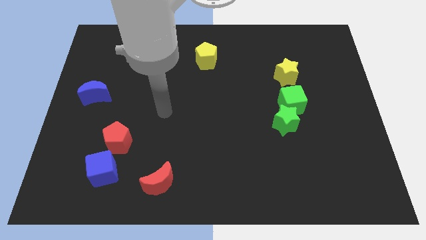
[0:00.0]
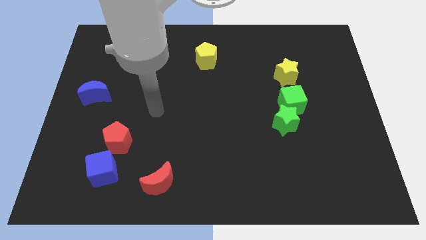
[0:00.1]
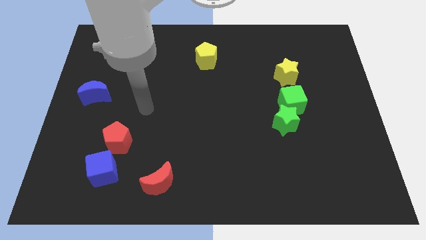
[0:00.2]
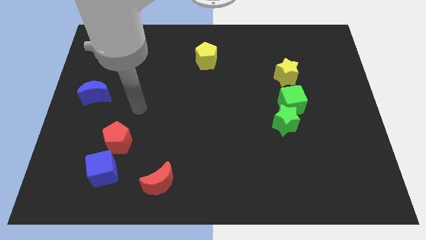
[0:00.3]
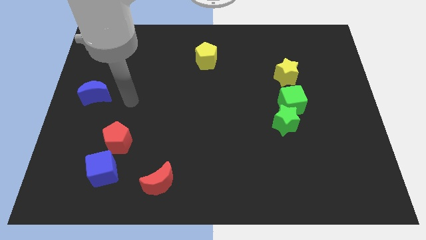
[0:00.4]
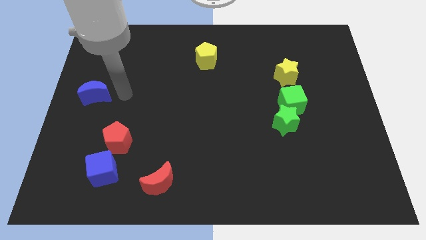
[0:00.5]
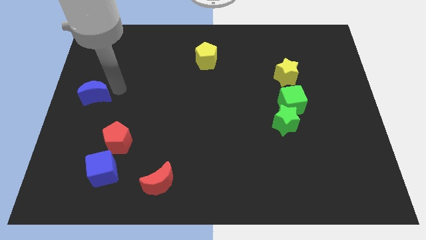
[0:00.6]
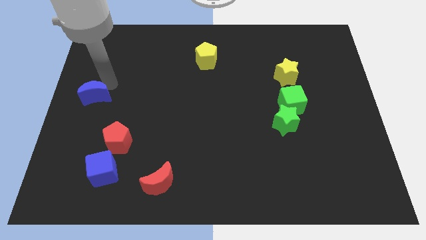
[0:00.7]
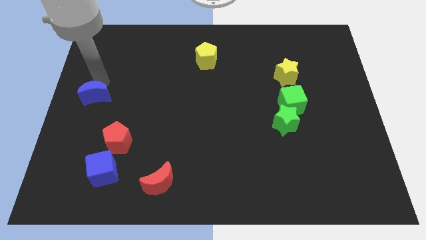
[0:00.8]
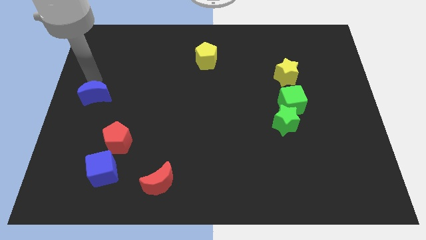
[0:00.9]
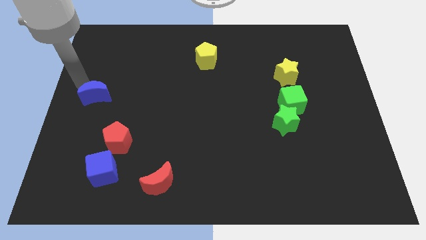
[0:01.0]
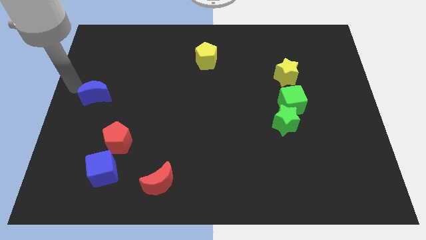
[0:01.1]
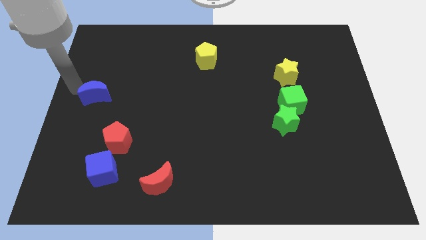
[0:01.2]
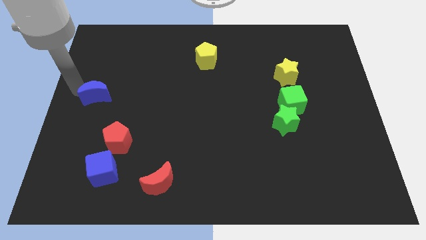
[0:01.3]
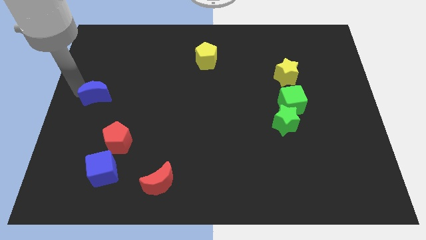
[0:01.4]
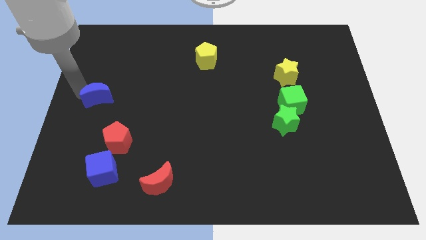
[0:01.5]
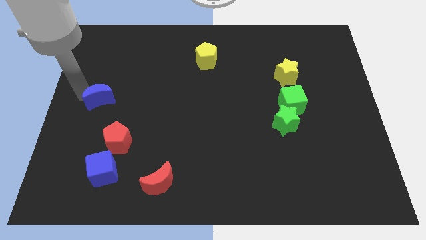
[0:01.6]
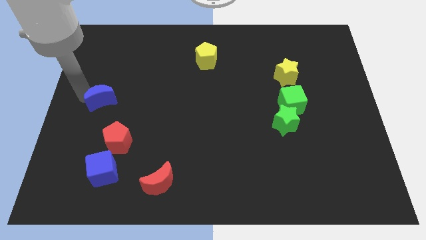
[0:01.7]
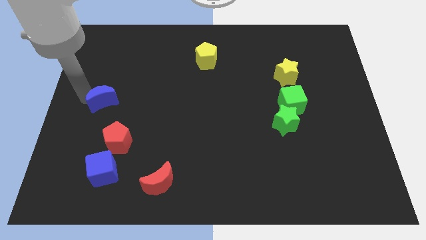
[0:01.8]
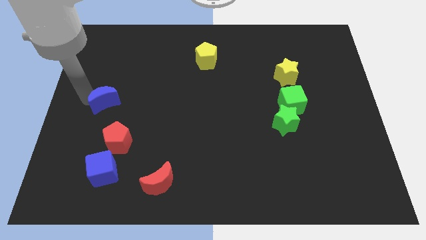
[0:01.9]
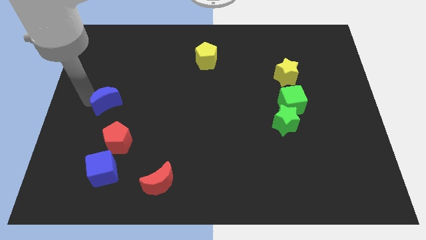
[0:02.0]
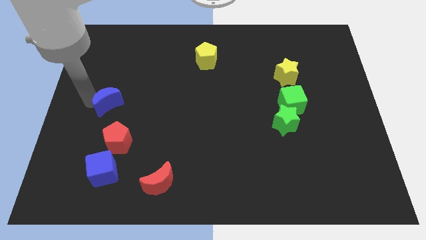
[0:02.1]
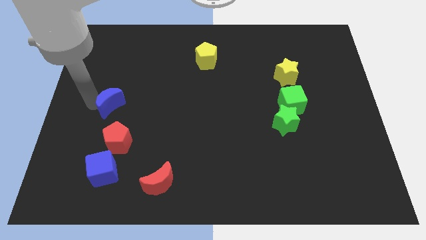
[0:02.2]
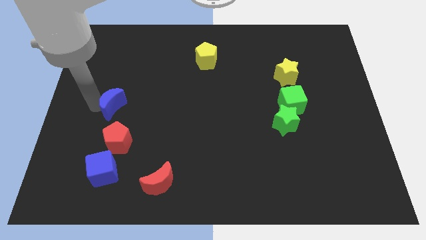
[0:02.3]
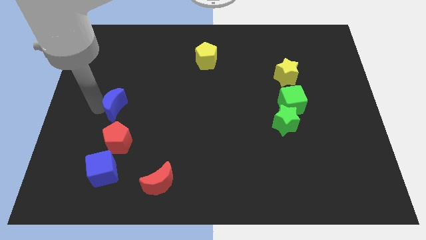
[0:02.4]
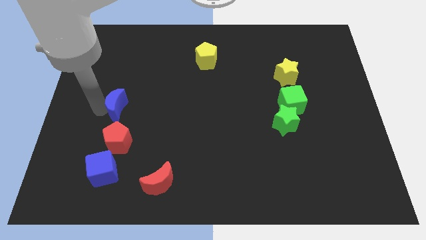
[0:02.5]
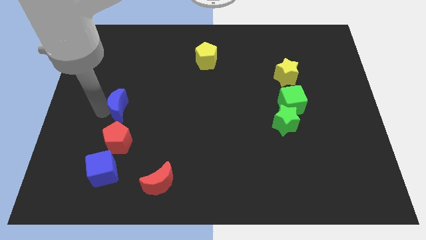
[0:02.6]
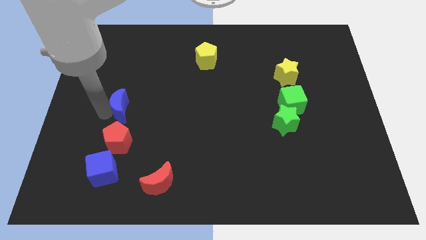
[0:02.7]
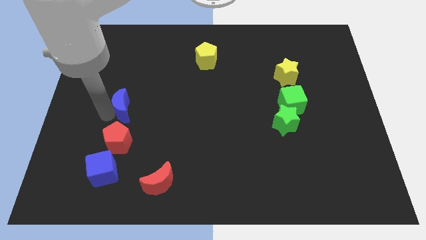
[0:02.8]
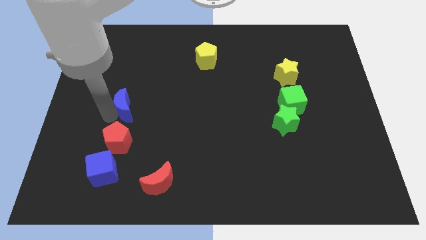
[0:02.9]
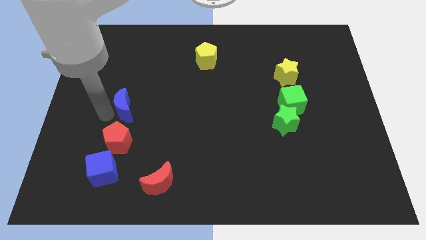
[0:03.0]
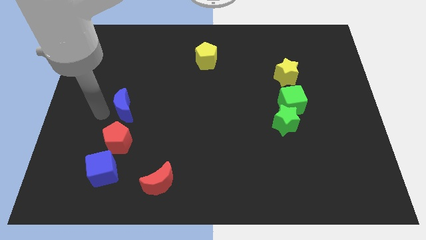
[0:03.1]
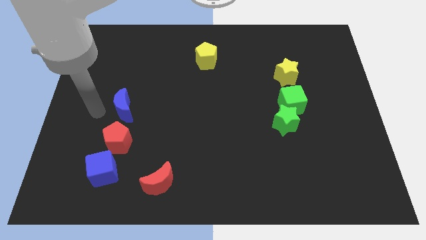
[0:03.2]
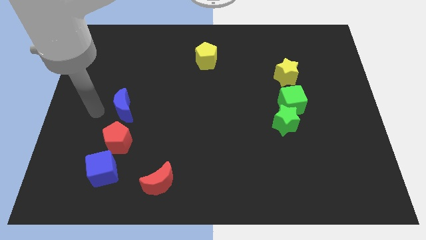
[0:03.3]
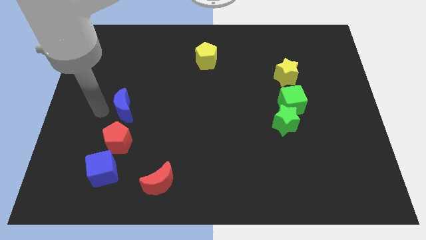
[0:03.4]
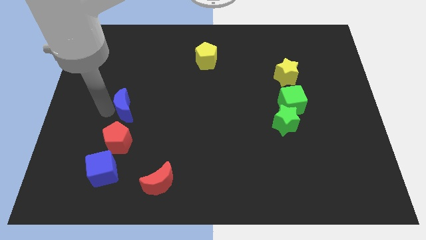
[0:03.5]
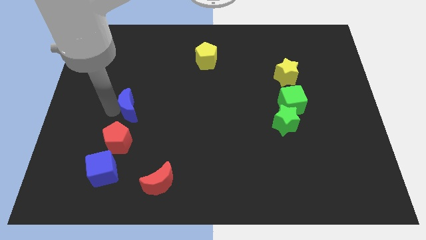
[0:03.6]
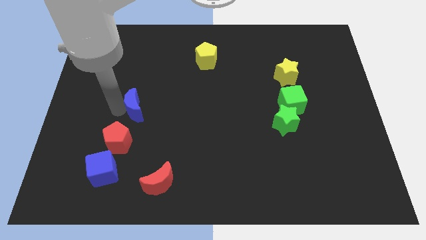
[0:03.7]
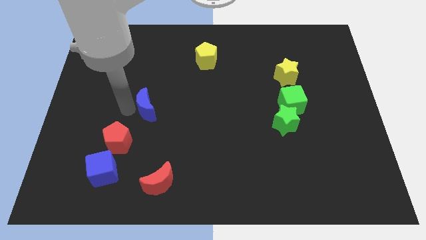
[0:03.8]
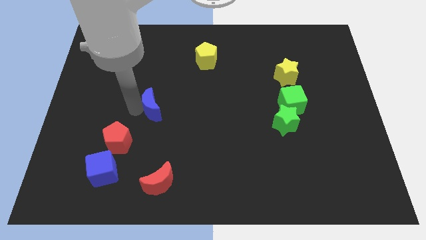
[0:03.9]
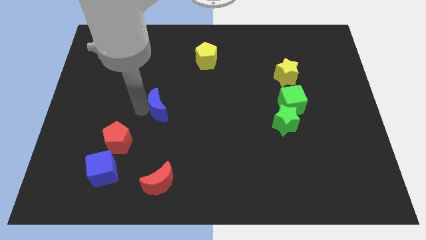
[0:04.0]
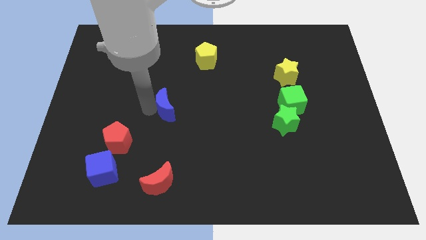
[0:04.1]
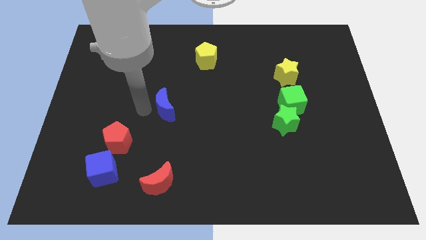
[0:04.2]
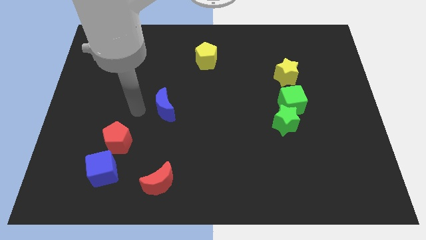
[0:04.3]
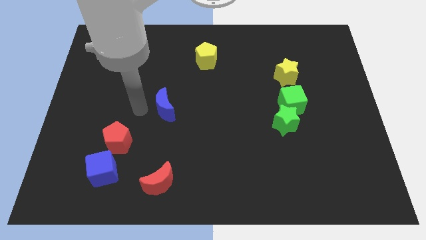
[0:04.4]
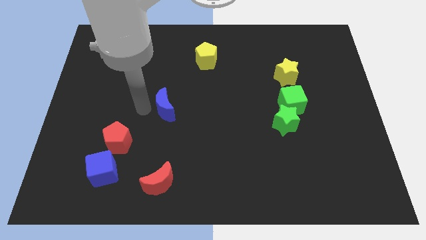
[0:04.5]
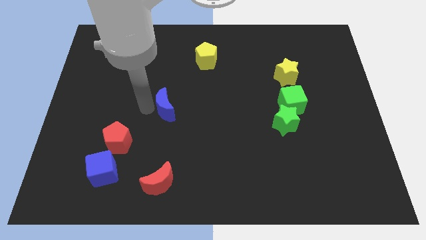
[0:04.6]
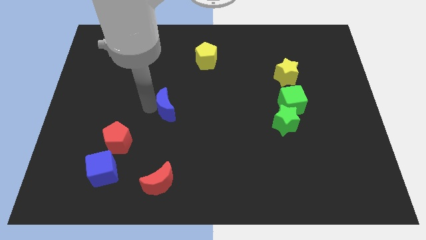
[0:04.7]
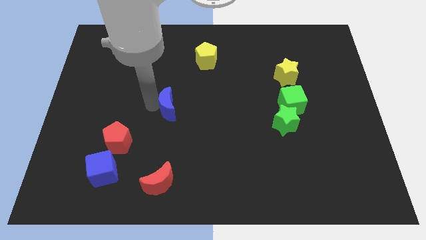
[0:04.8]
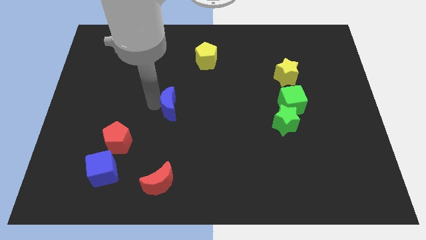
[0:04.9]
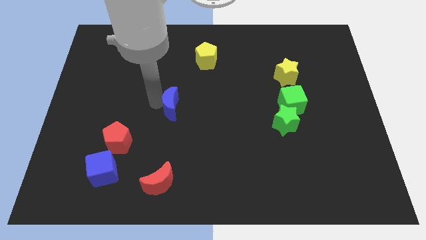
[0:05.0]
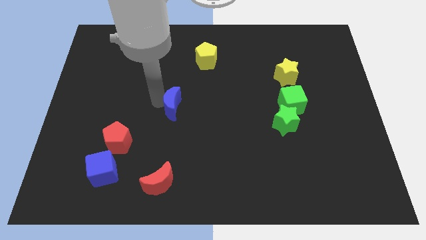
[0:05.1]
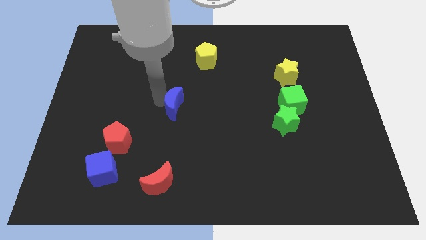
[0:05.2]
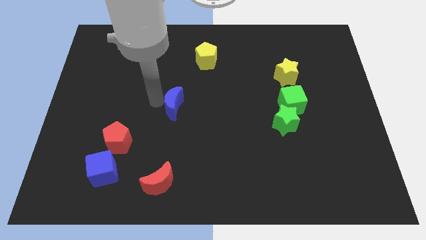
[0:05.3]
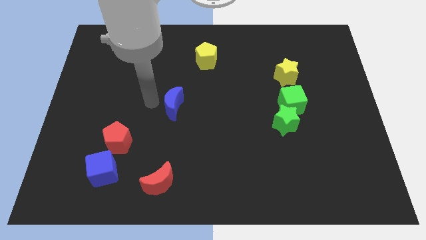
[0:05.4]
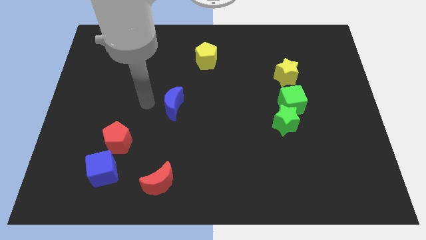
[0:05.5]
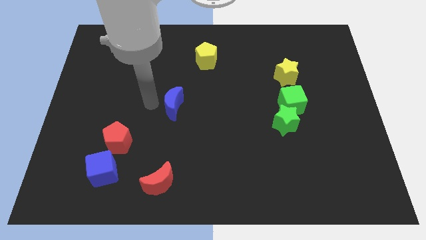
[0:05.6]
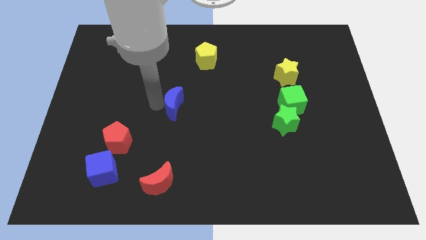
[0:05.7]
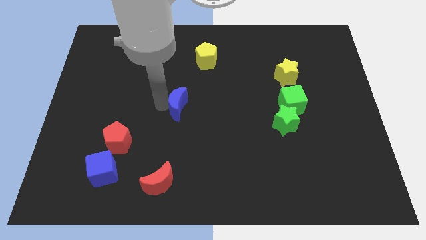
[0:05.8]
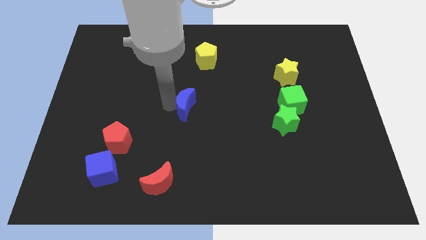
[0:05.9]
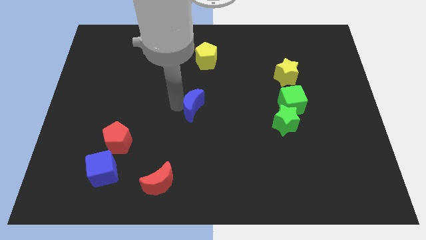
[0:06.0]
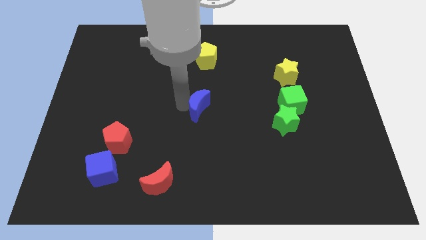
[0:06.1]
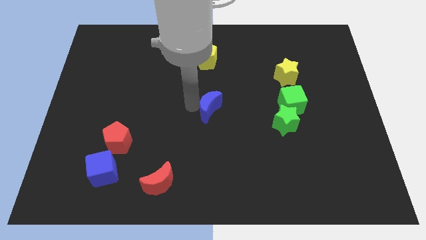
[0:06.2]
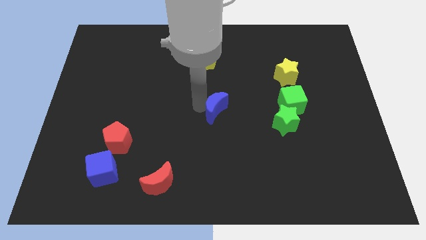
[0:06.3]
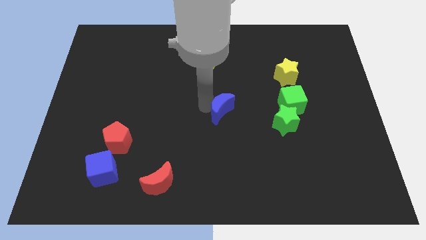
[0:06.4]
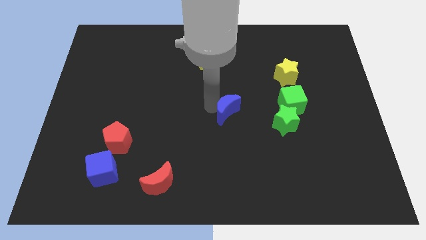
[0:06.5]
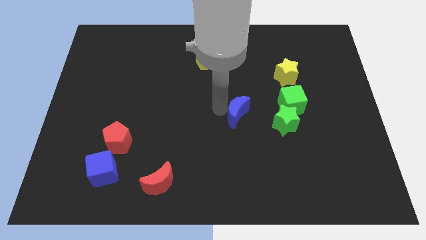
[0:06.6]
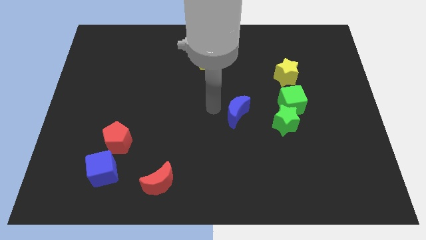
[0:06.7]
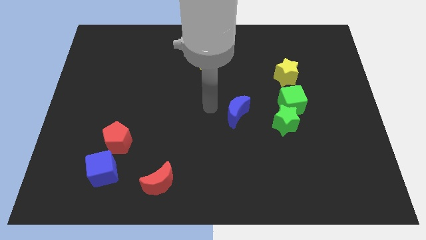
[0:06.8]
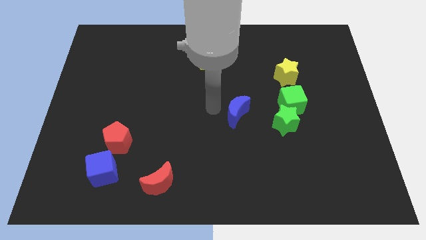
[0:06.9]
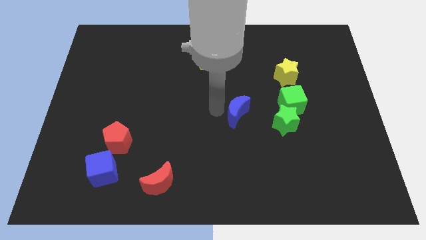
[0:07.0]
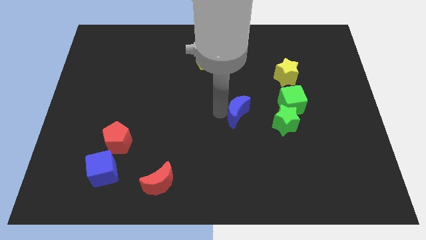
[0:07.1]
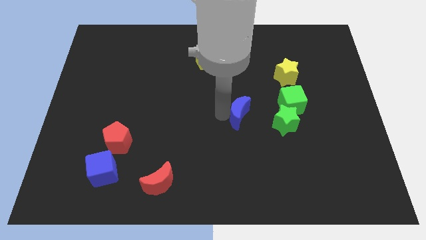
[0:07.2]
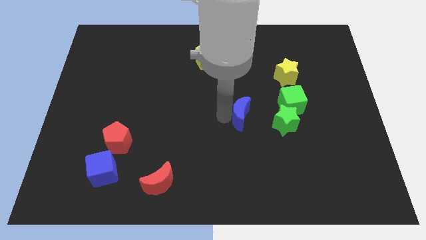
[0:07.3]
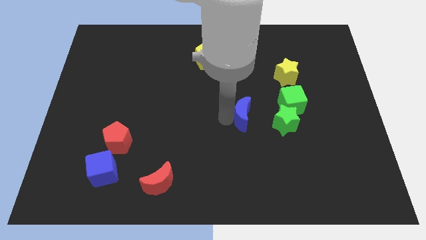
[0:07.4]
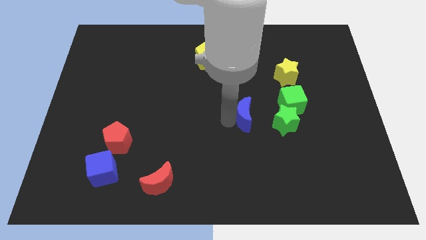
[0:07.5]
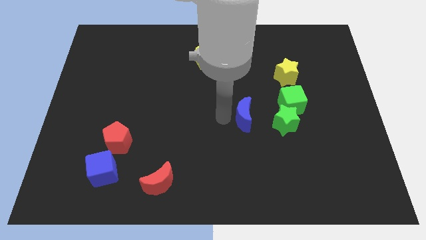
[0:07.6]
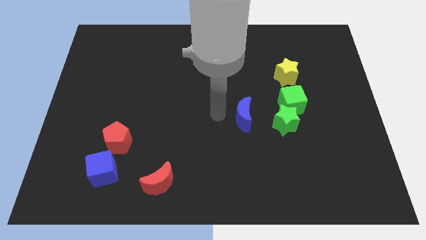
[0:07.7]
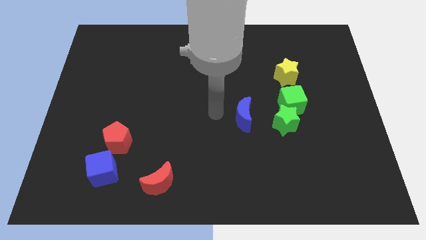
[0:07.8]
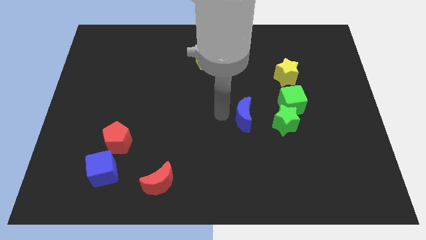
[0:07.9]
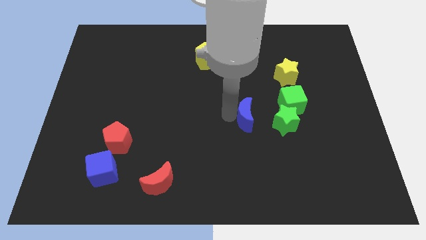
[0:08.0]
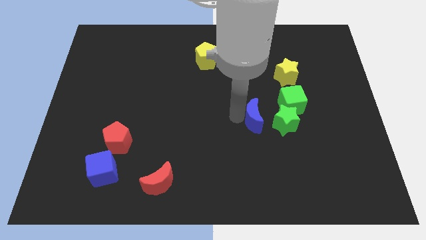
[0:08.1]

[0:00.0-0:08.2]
push the blue moon to the bottom left side of the green cube
